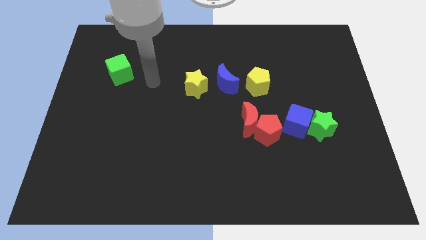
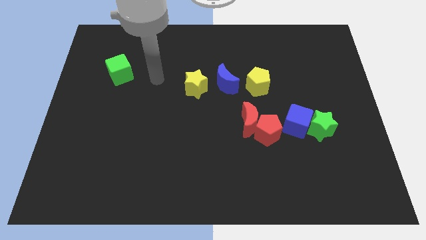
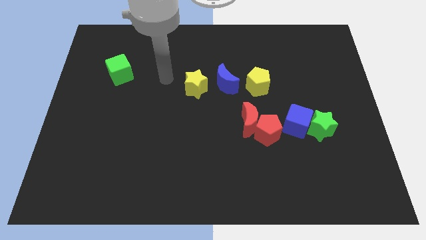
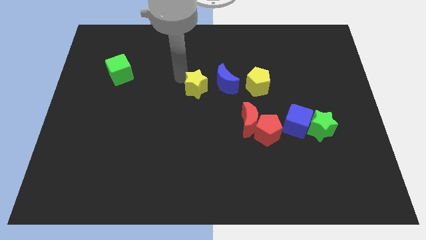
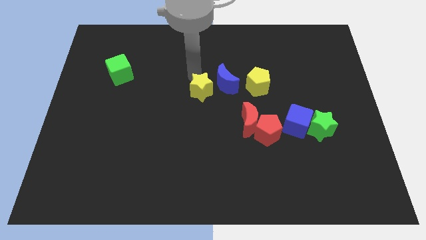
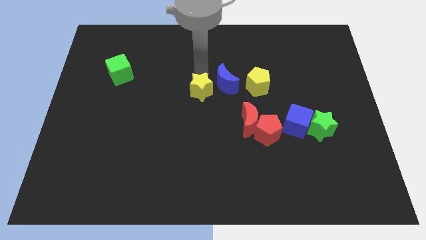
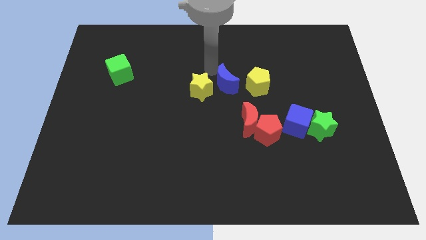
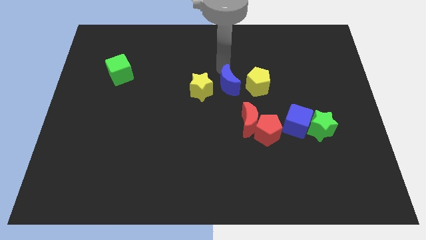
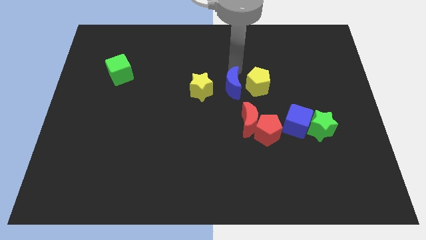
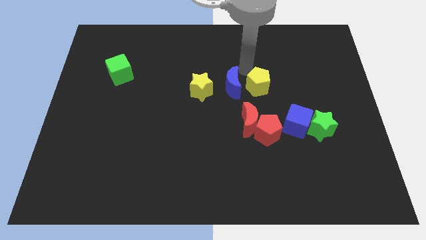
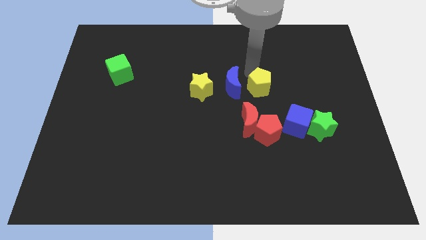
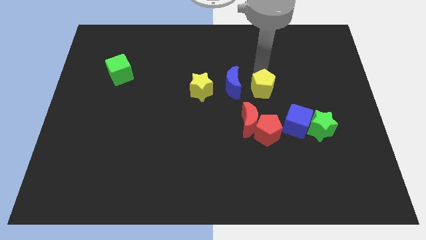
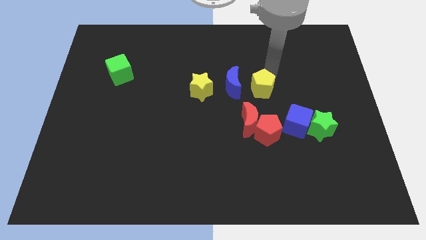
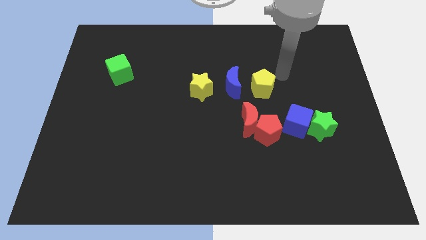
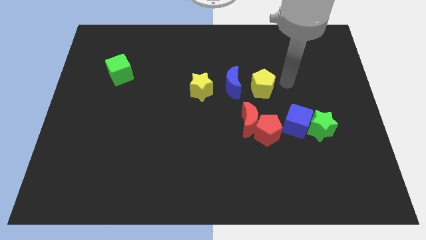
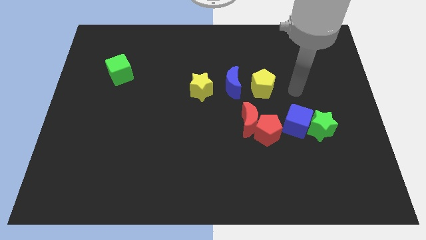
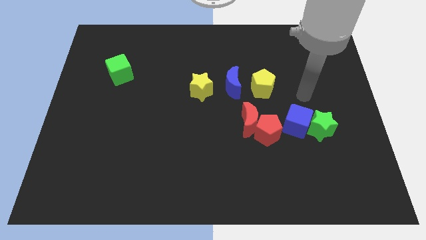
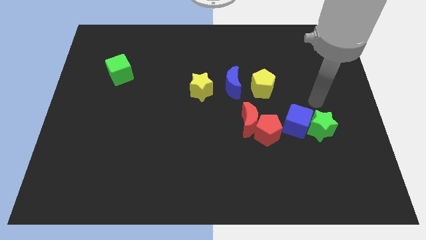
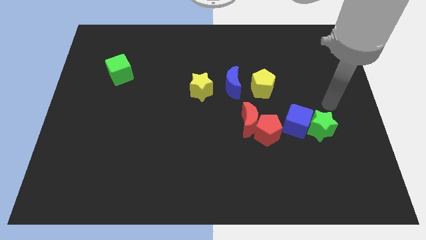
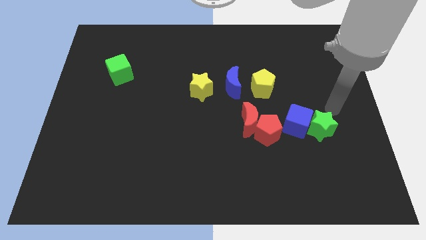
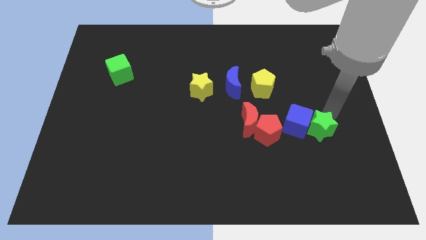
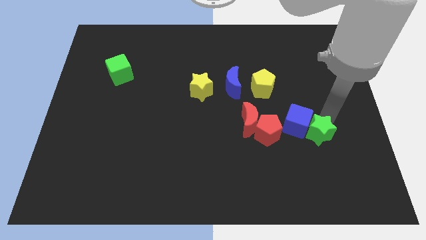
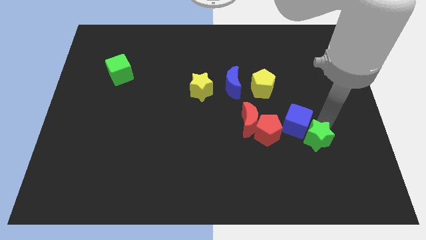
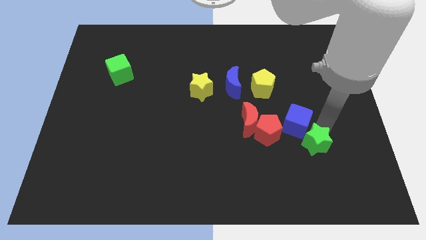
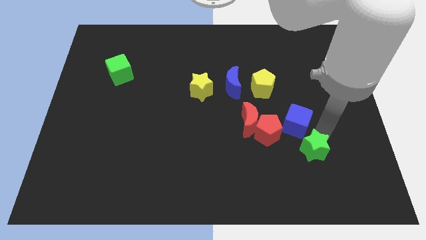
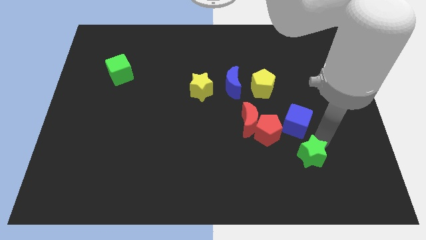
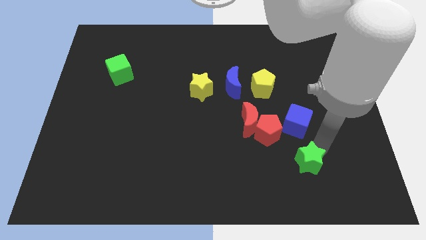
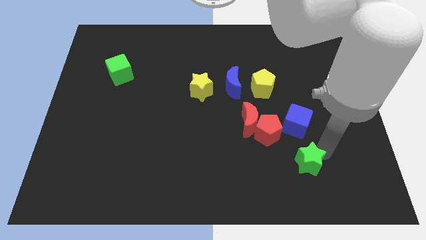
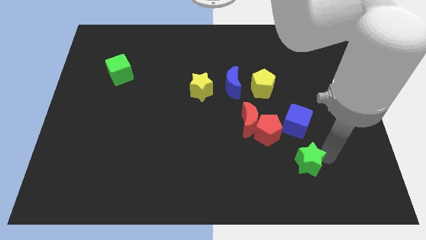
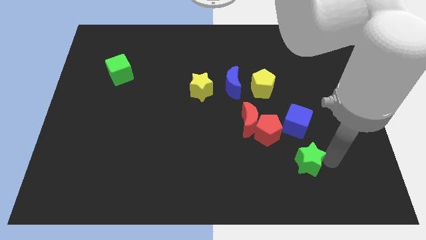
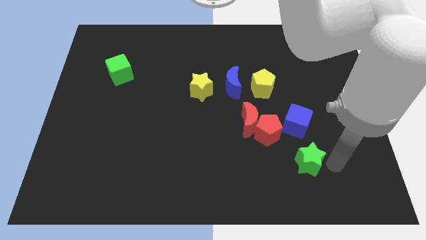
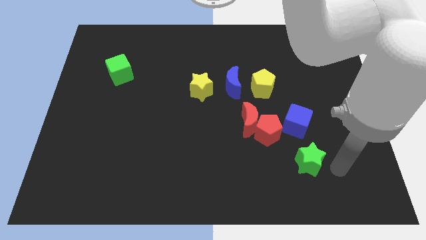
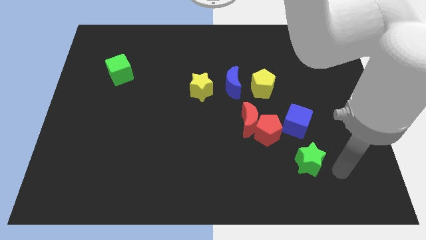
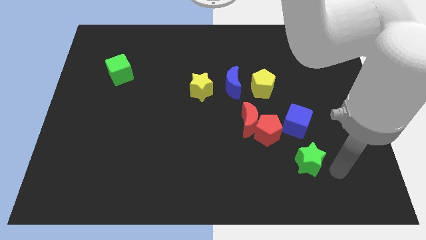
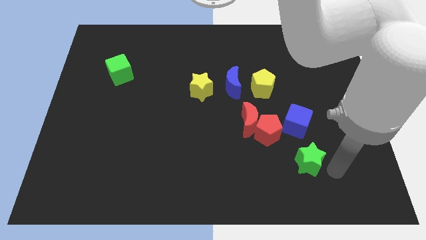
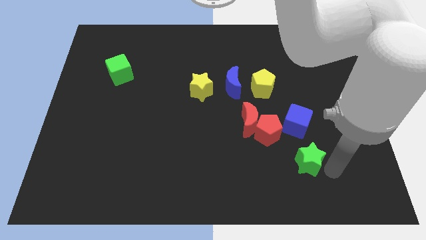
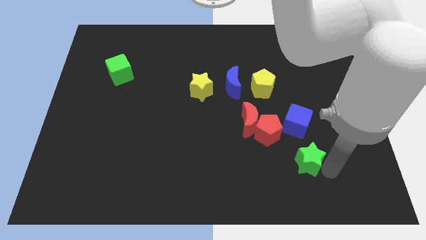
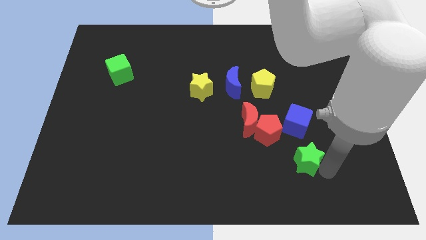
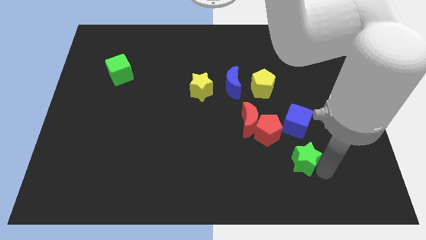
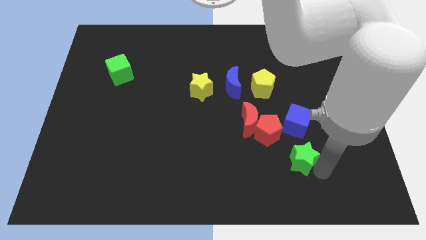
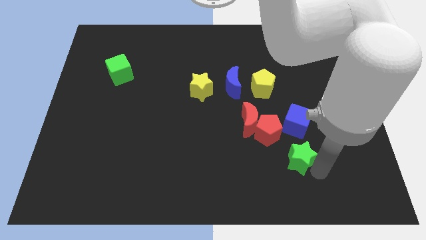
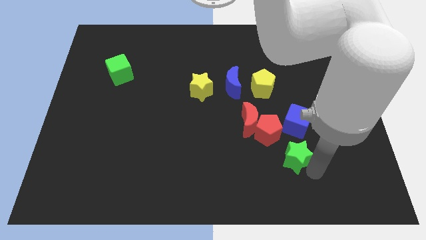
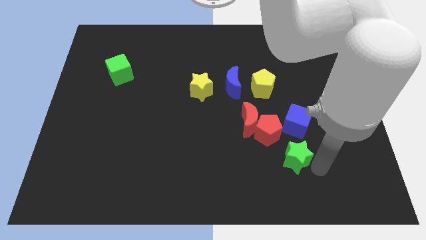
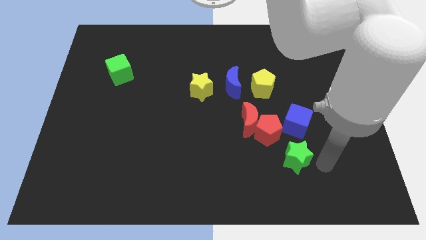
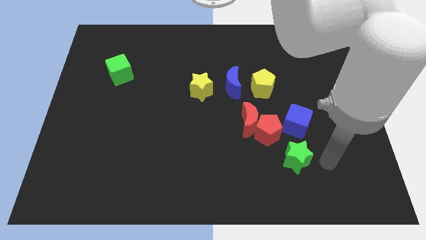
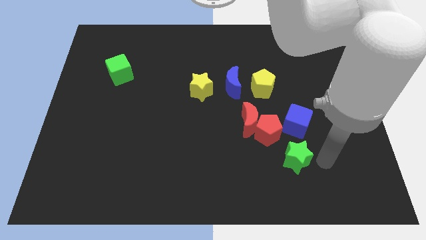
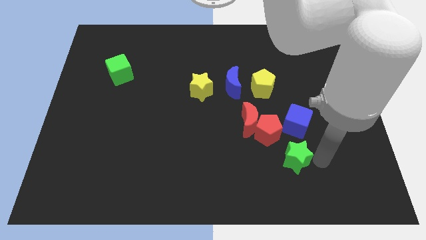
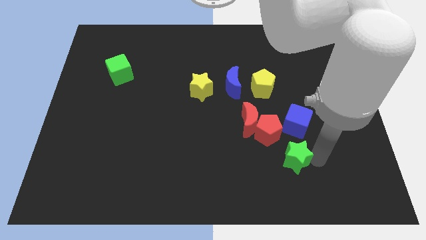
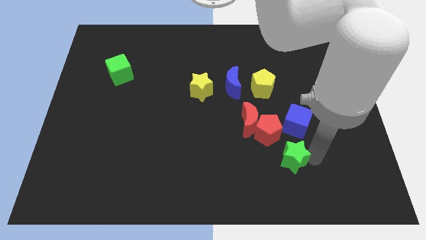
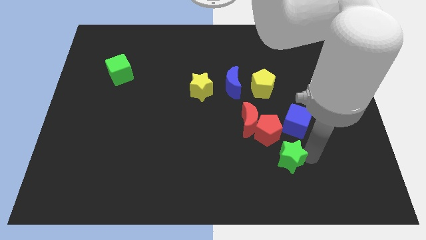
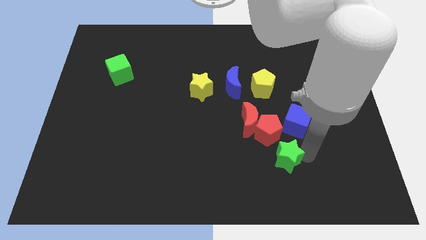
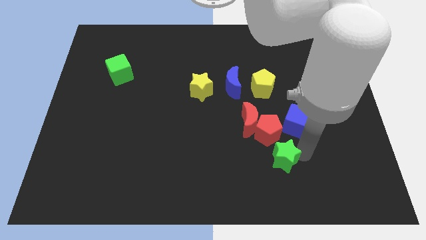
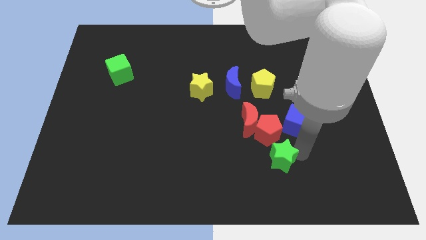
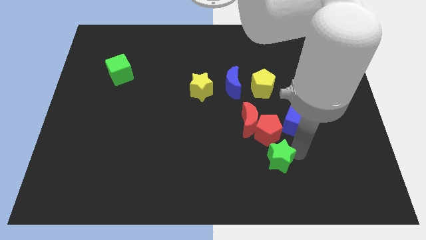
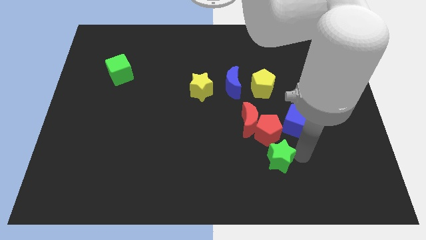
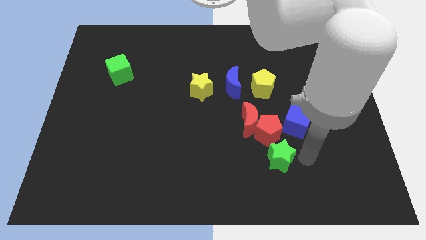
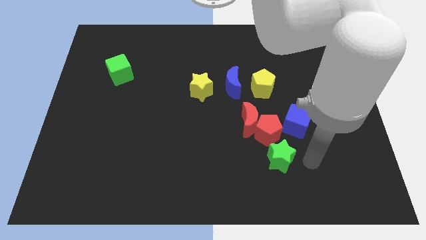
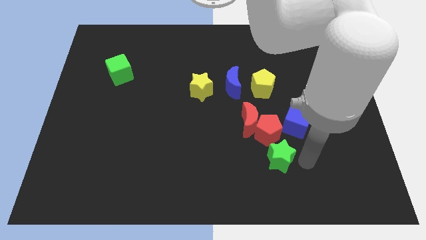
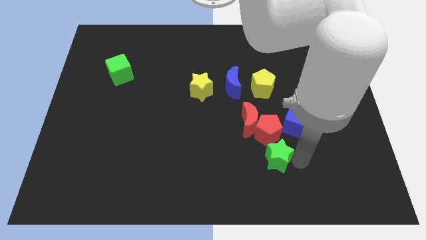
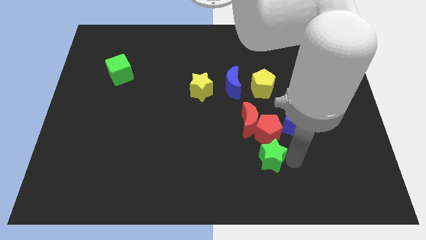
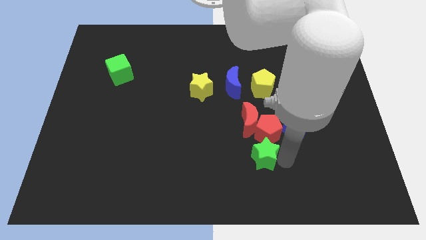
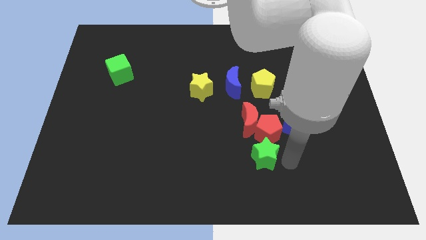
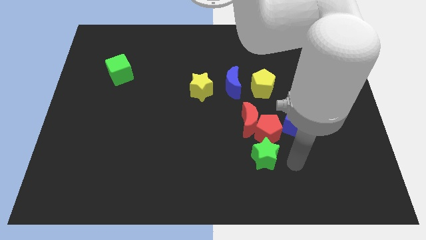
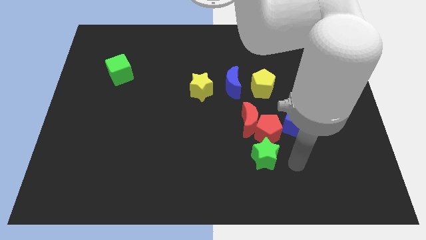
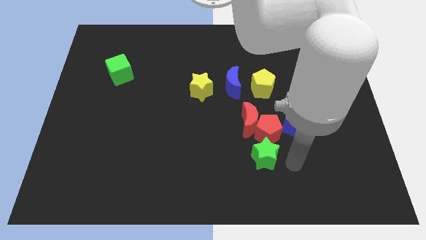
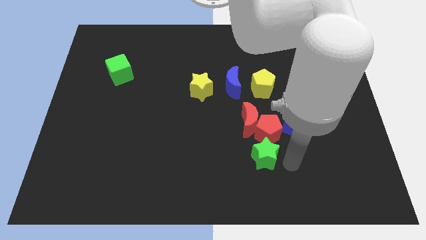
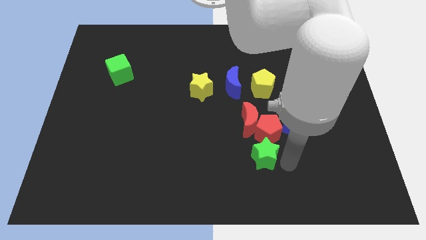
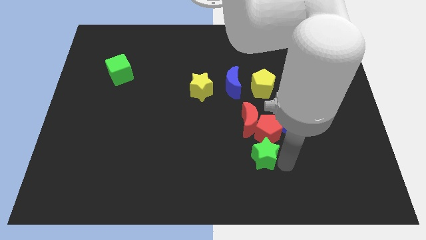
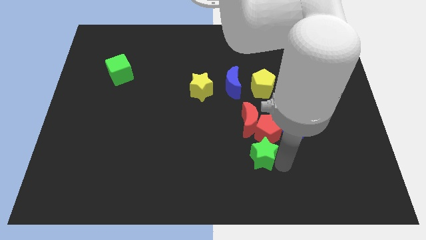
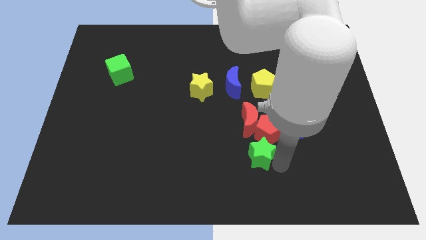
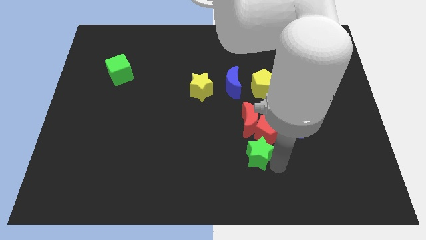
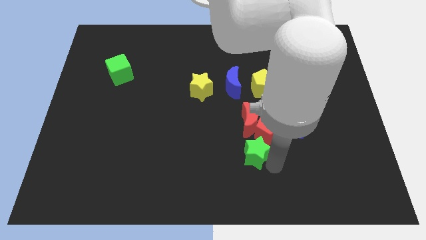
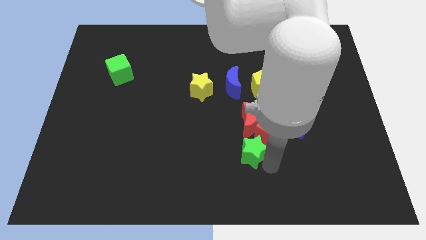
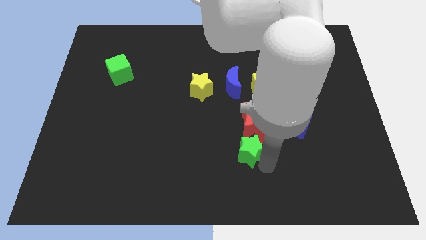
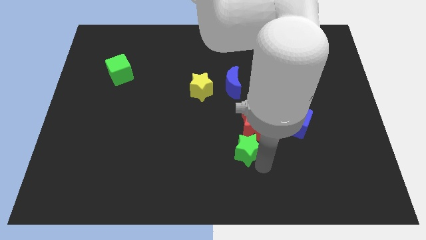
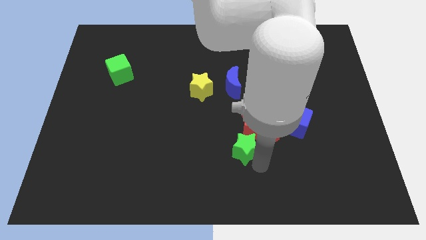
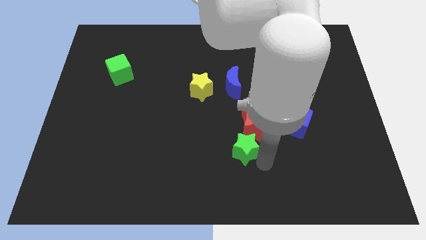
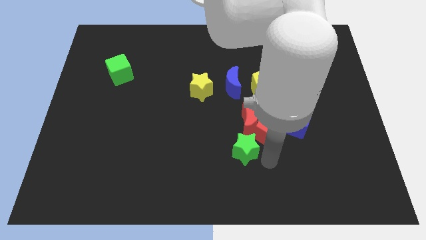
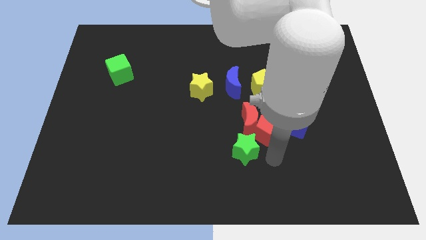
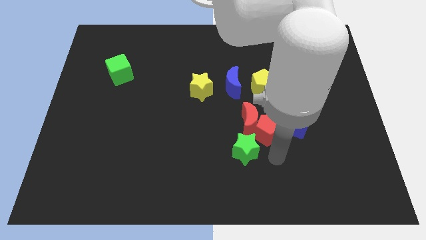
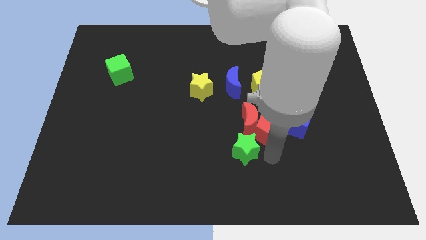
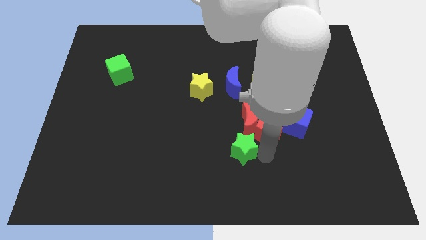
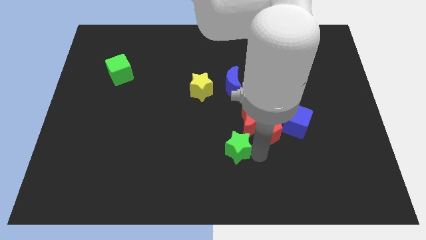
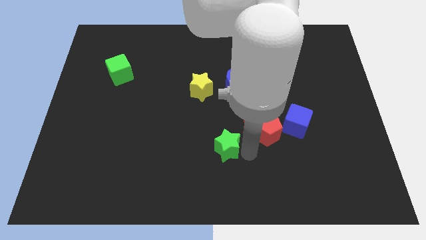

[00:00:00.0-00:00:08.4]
move the green star to the left
